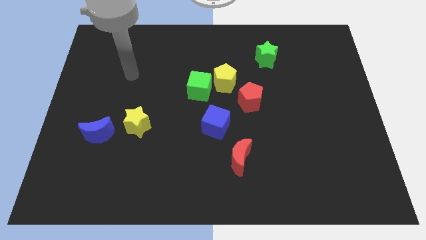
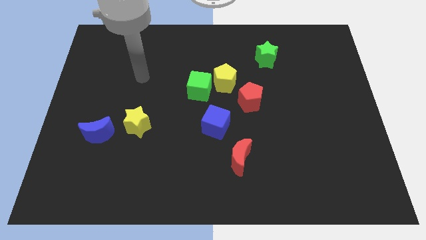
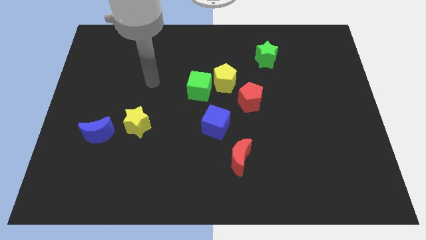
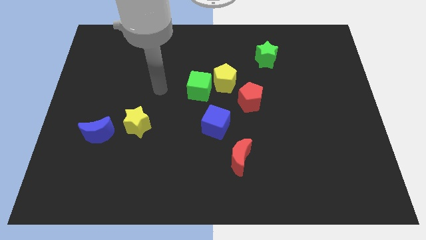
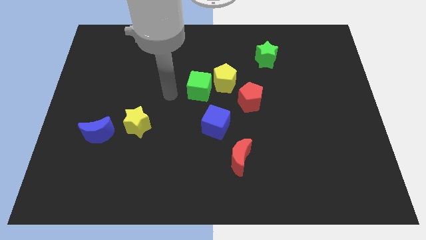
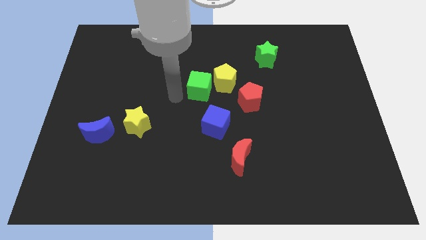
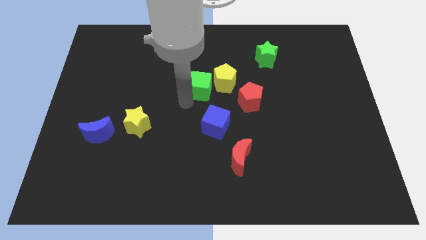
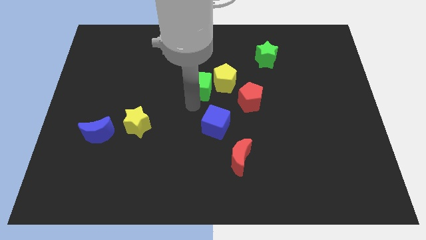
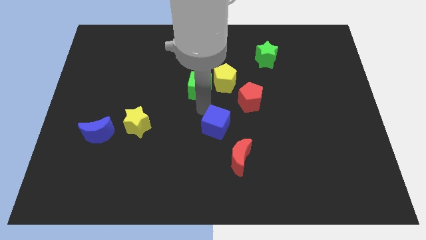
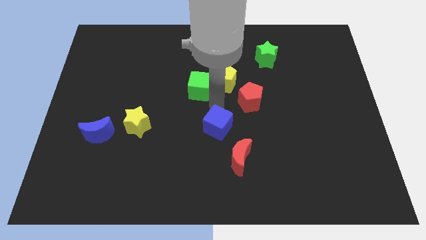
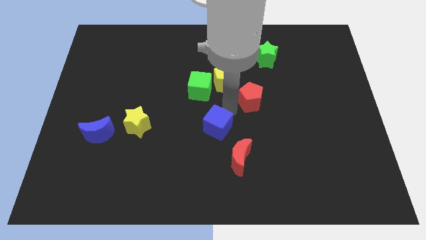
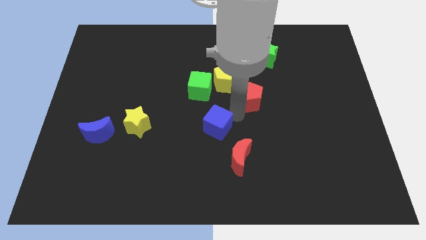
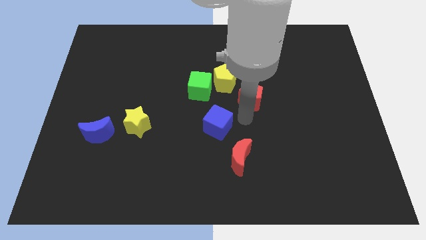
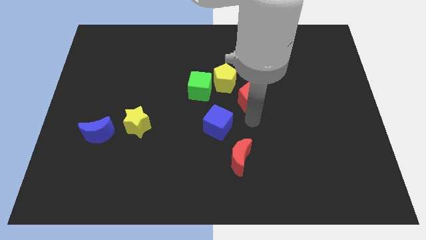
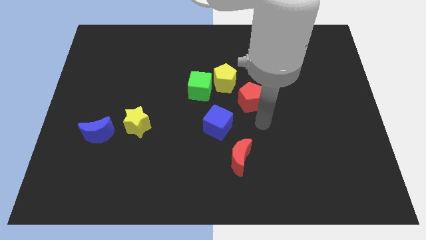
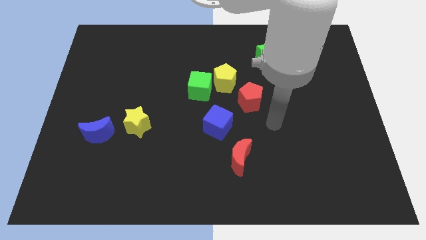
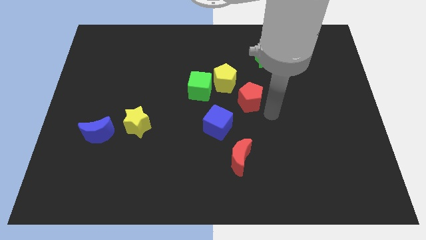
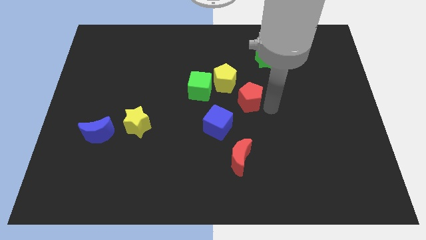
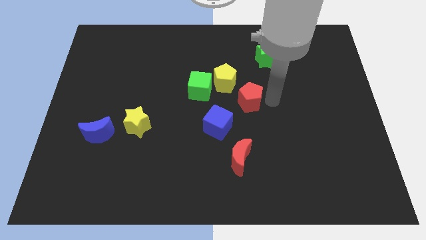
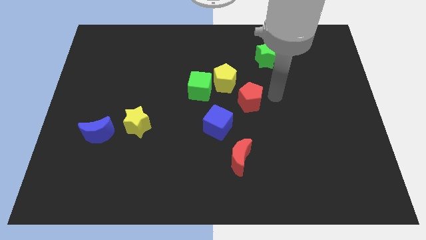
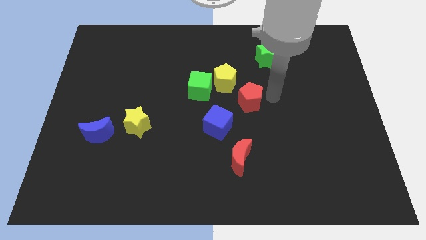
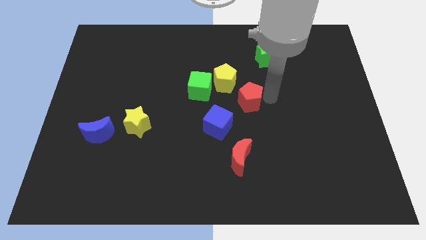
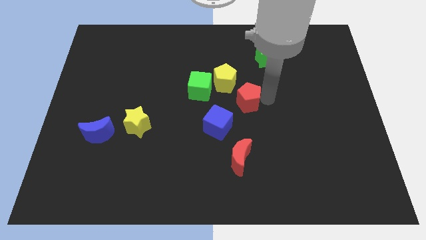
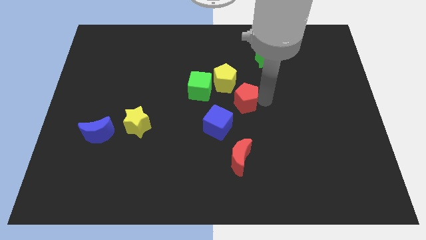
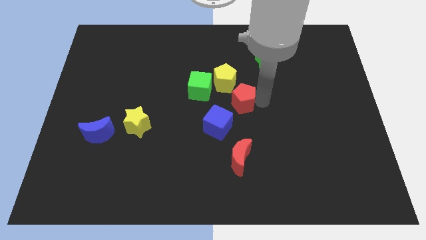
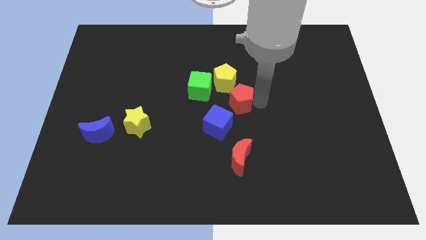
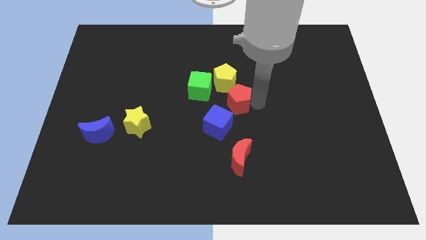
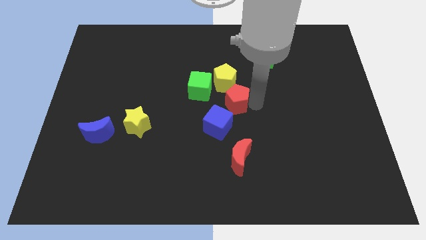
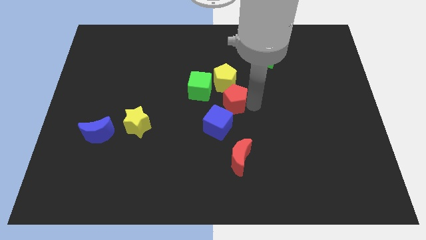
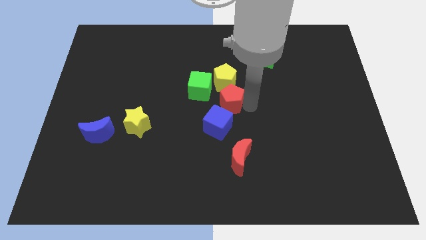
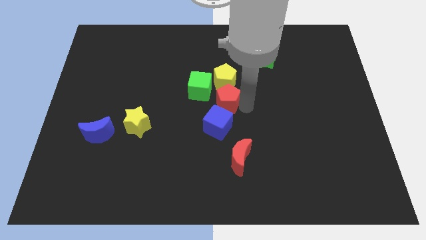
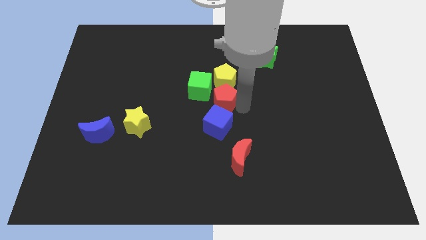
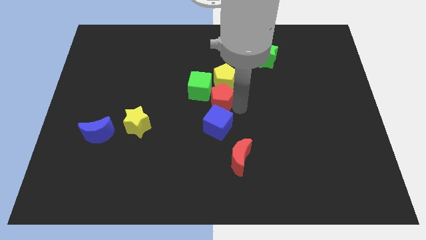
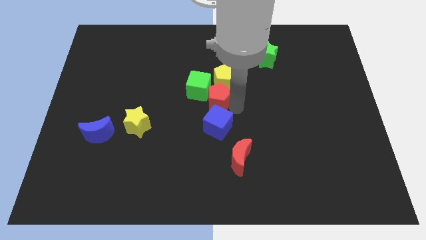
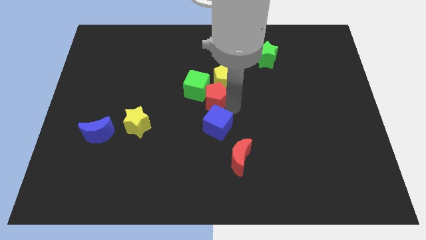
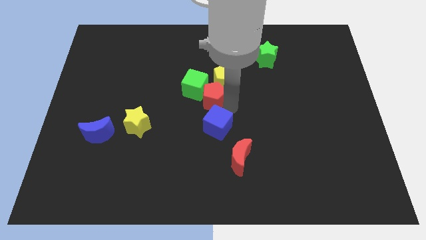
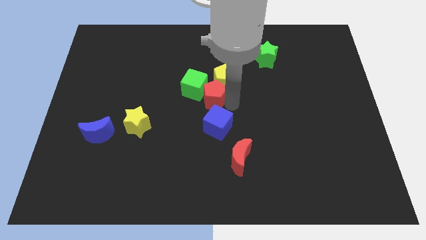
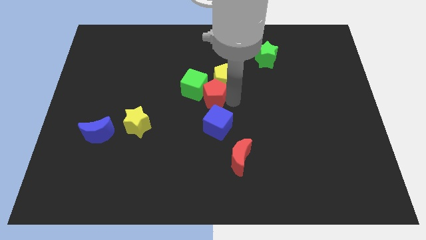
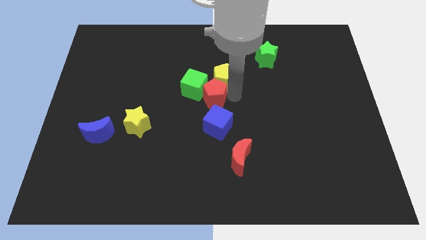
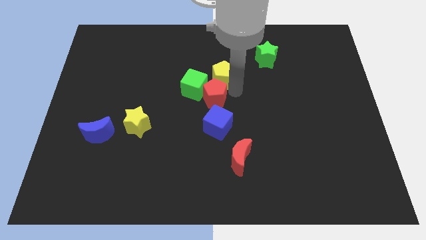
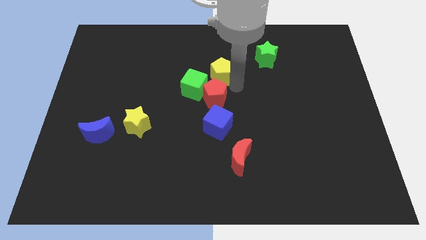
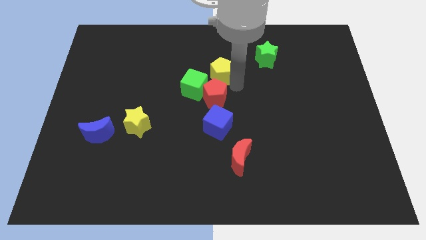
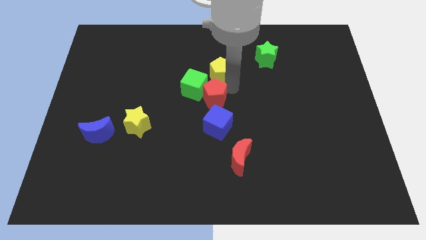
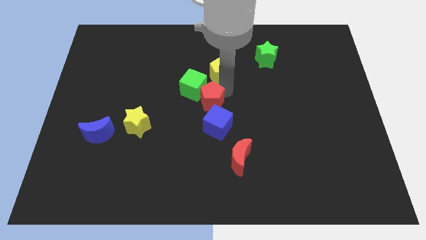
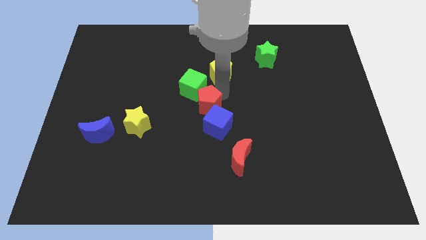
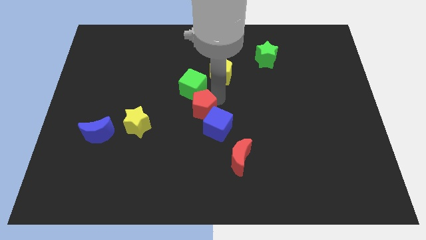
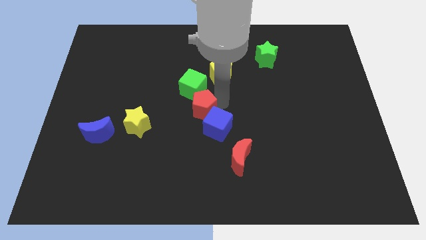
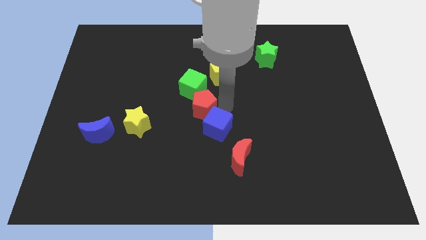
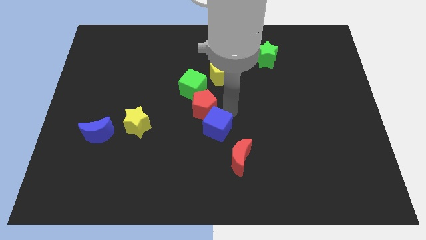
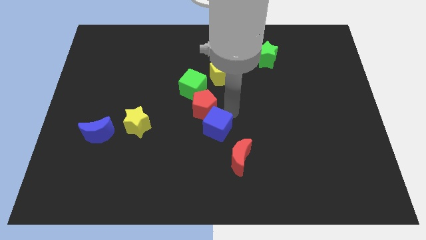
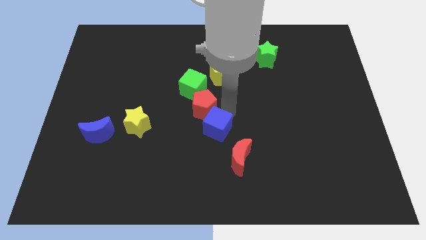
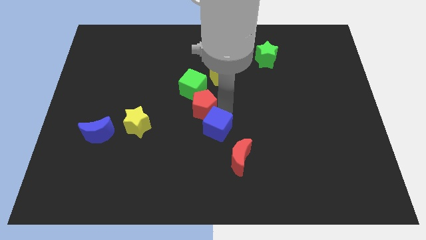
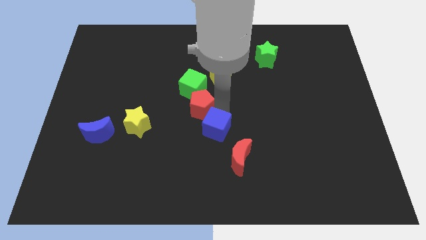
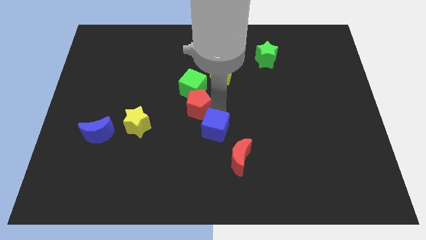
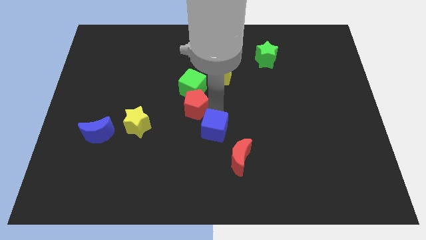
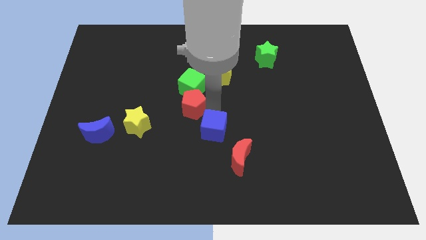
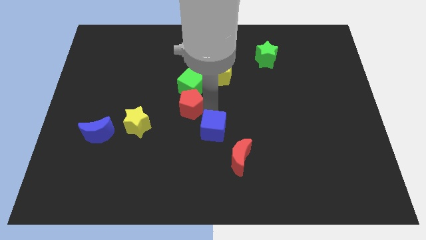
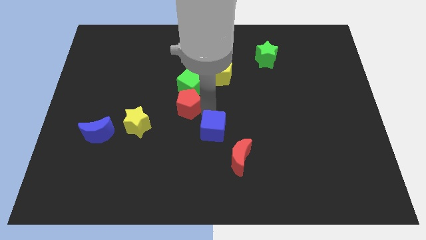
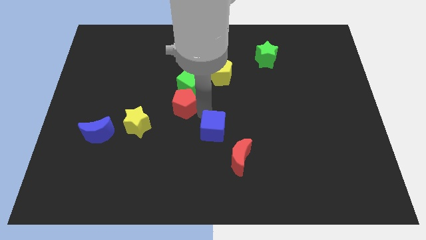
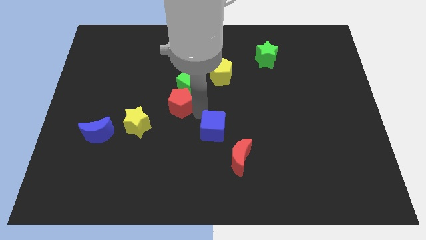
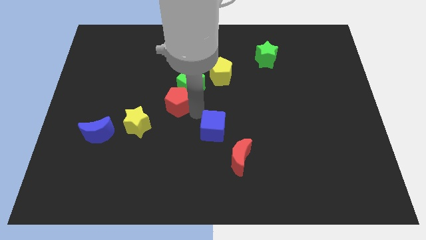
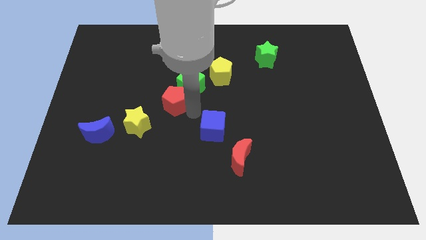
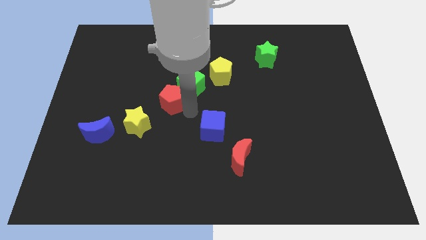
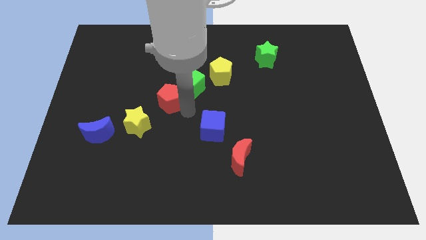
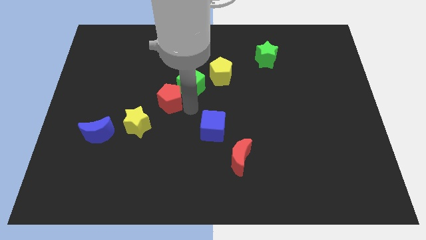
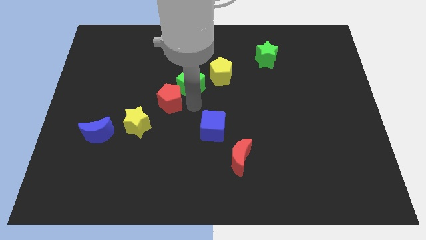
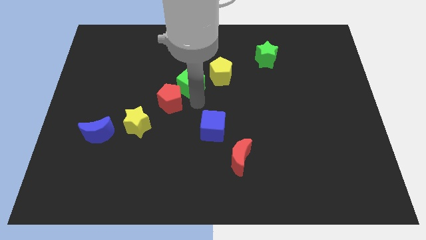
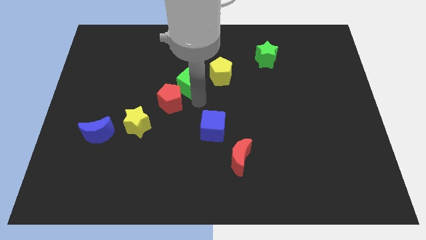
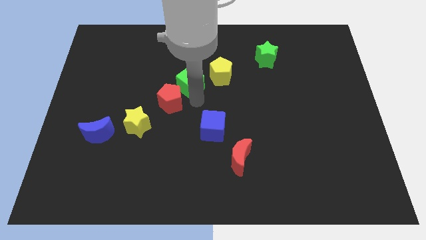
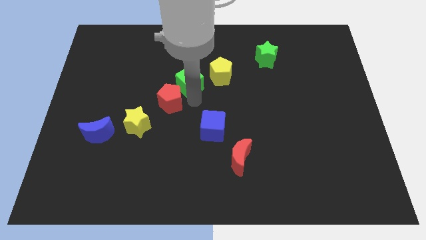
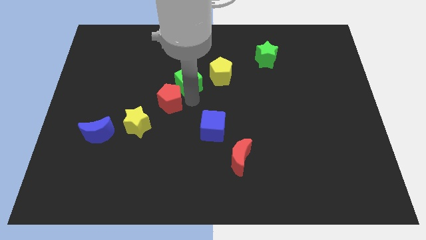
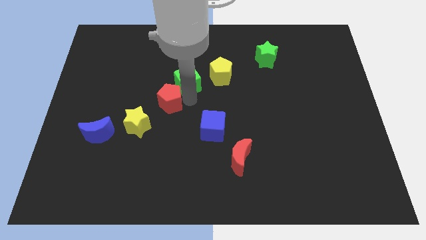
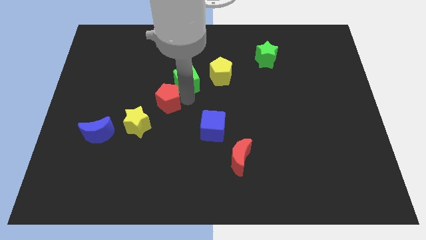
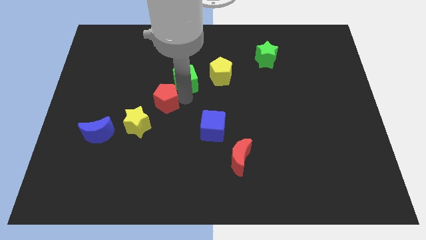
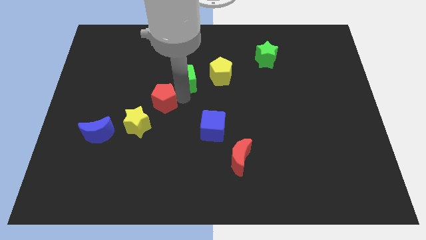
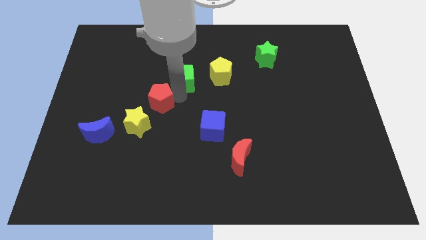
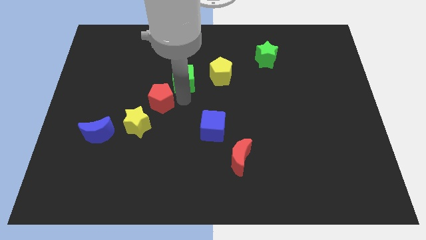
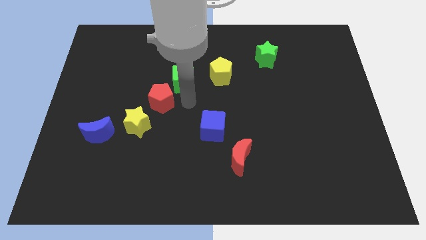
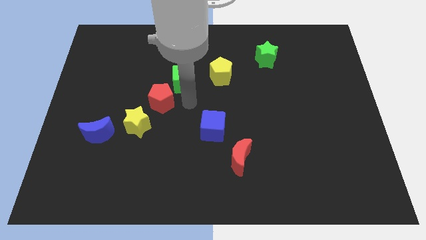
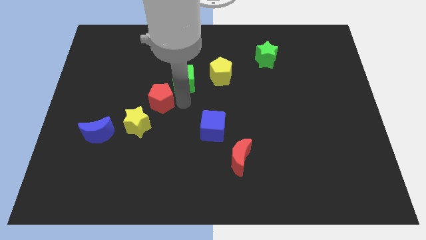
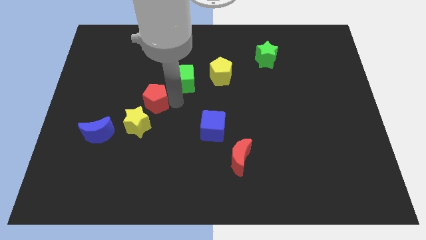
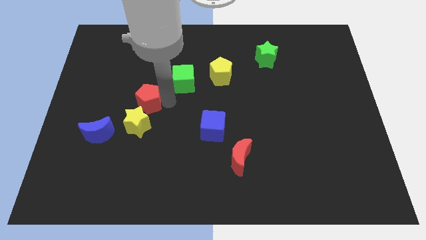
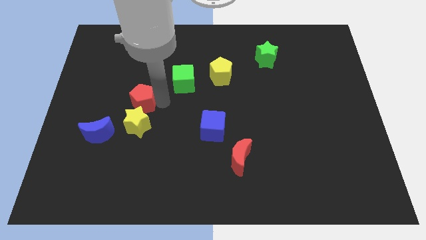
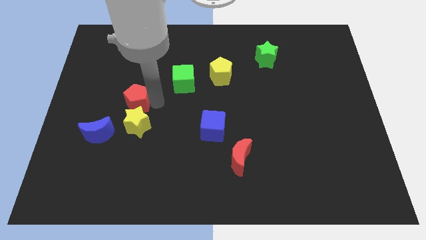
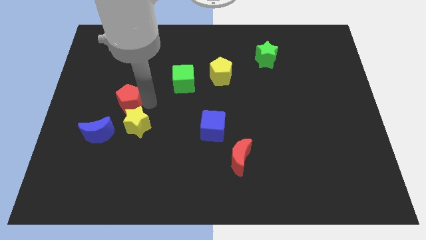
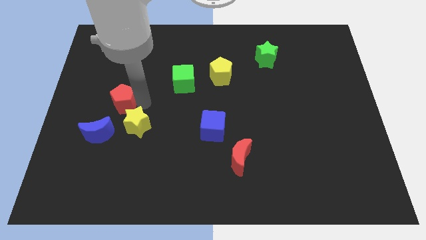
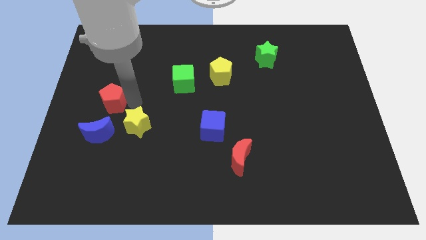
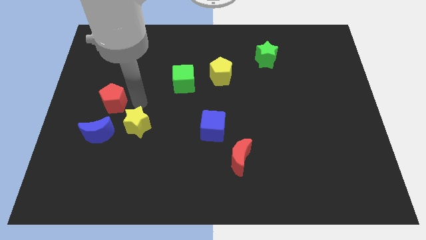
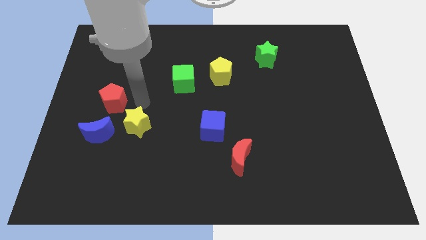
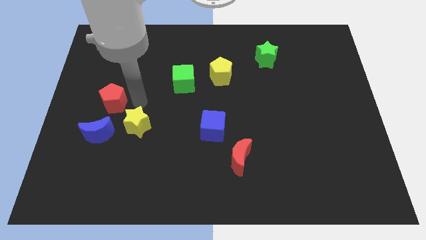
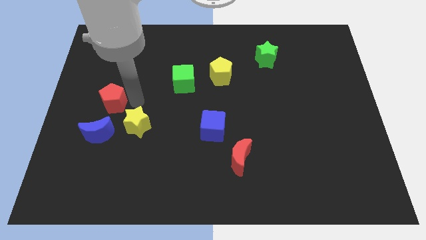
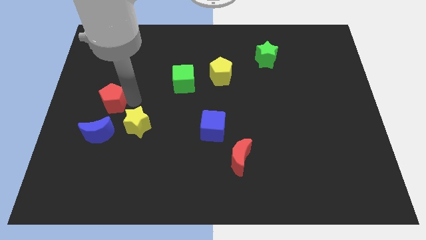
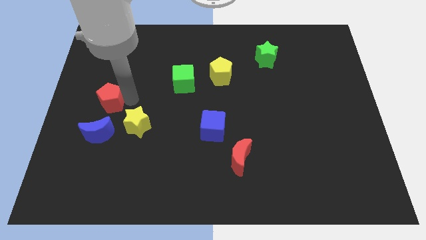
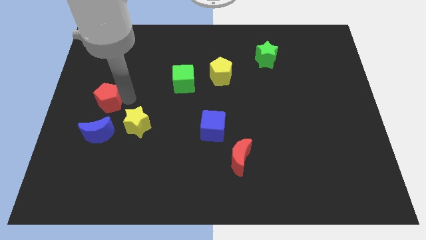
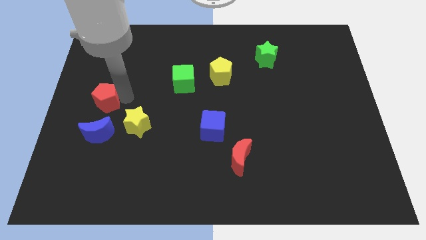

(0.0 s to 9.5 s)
move the red pentagon to the center left
